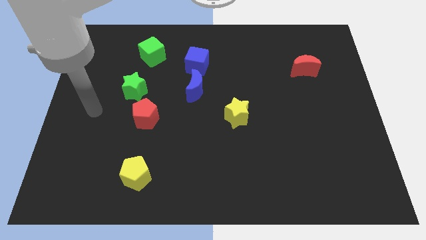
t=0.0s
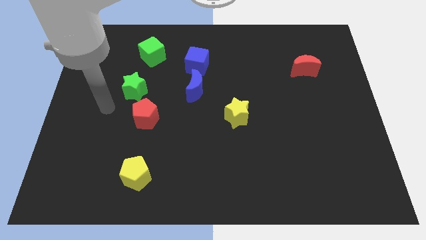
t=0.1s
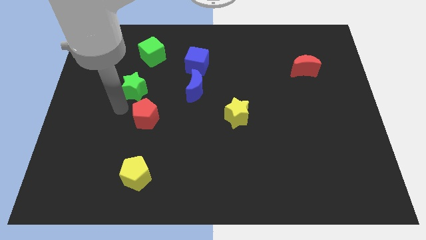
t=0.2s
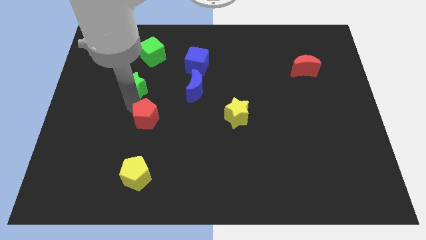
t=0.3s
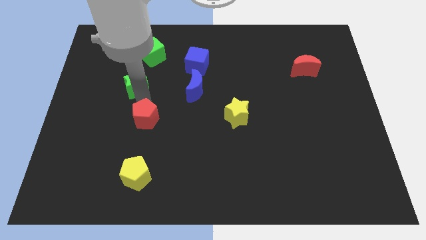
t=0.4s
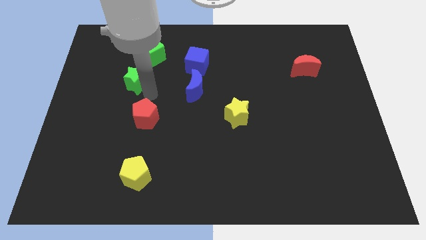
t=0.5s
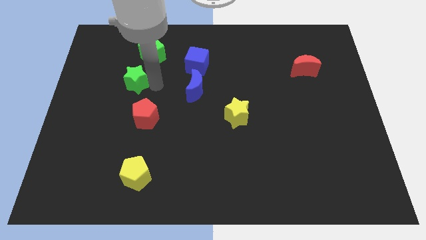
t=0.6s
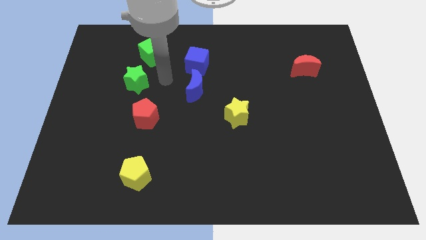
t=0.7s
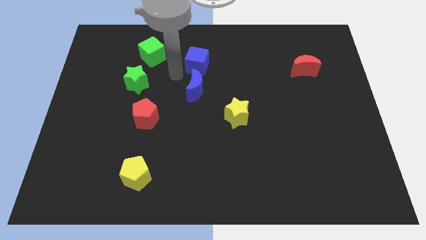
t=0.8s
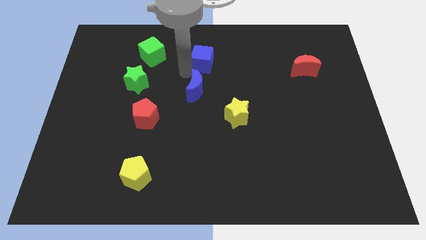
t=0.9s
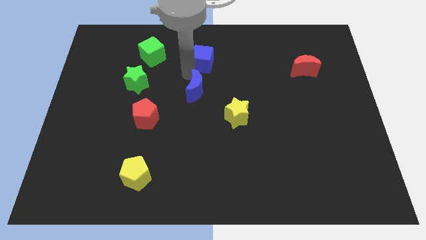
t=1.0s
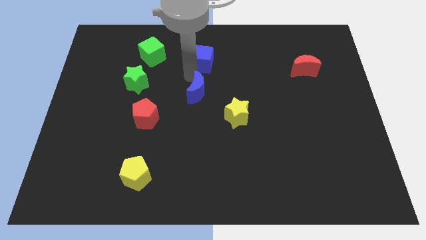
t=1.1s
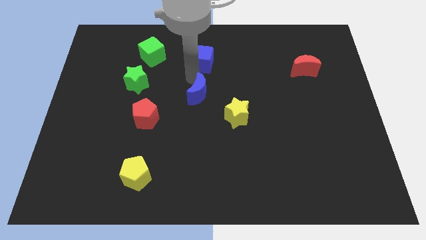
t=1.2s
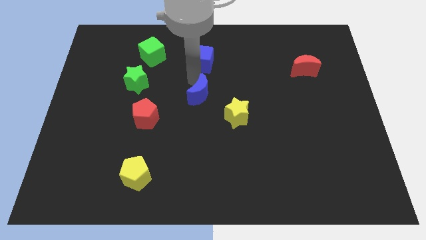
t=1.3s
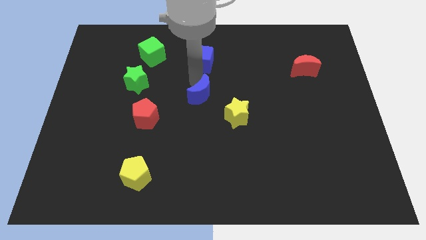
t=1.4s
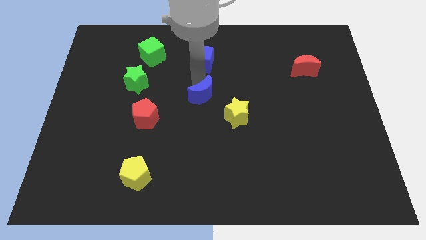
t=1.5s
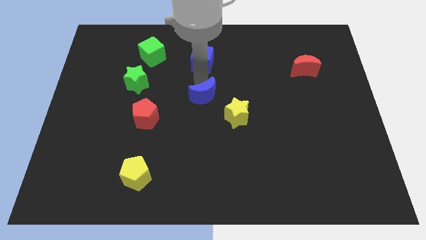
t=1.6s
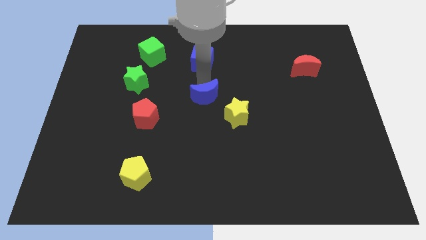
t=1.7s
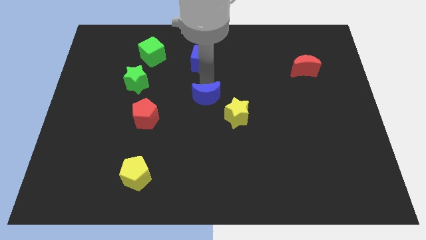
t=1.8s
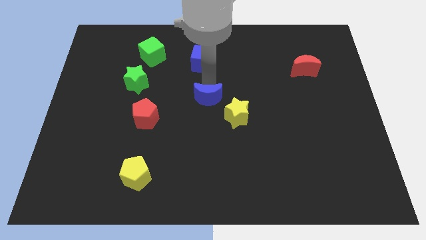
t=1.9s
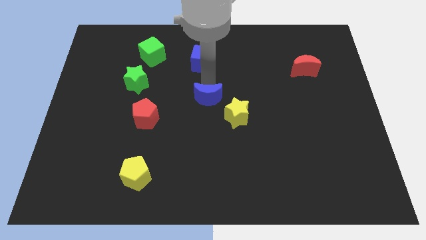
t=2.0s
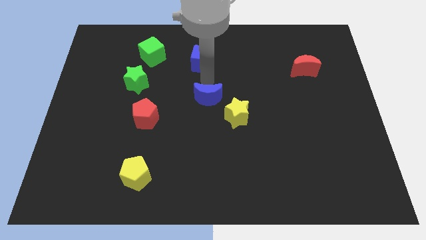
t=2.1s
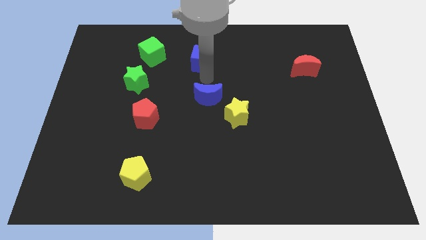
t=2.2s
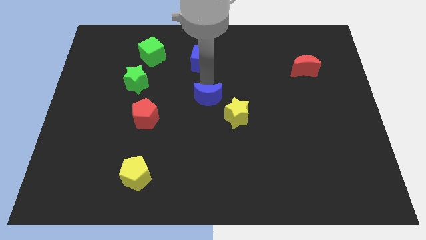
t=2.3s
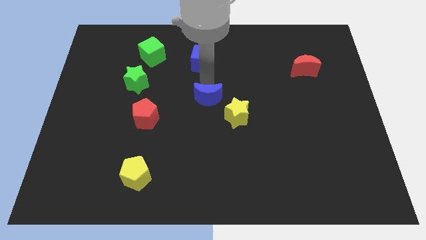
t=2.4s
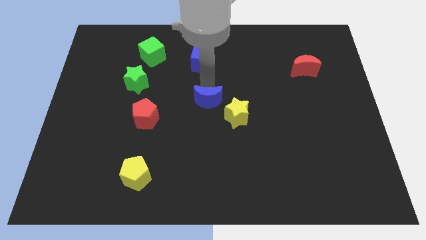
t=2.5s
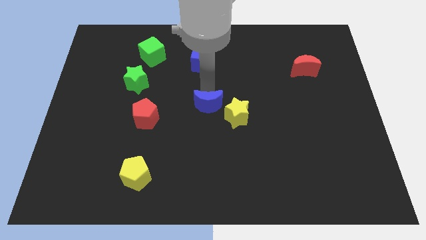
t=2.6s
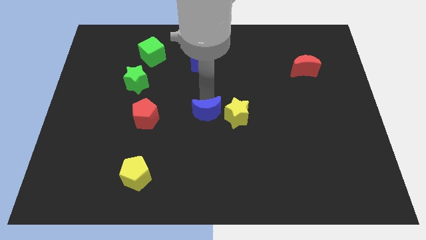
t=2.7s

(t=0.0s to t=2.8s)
move the blue moon downwards and to the right diagonally somewhat

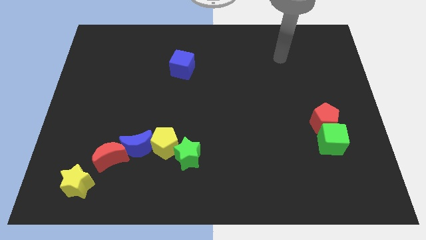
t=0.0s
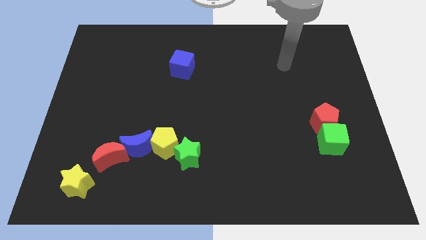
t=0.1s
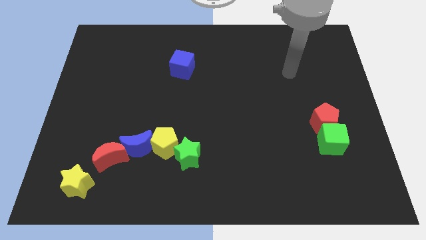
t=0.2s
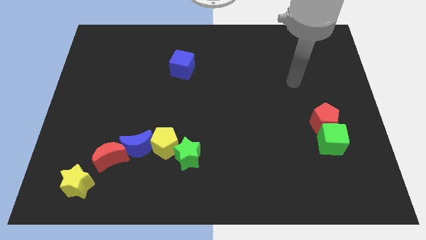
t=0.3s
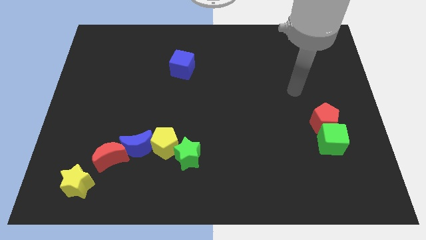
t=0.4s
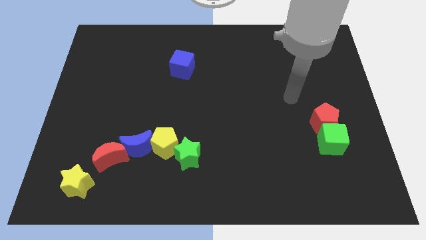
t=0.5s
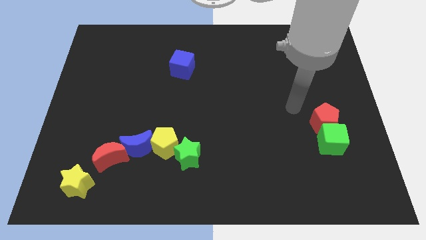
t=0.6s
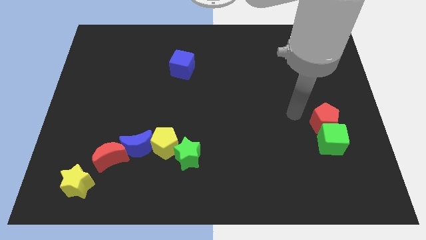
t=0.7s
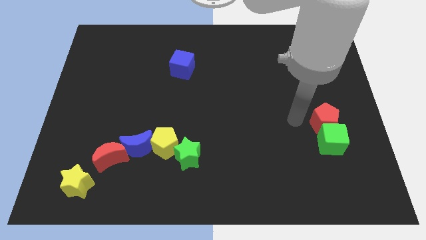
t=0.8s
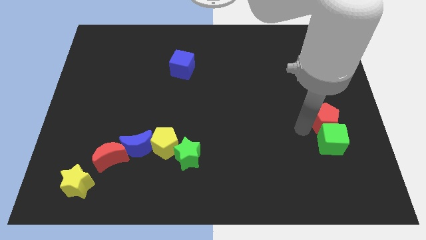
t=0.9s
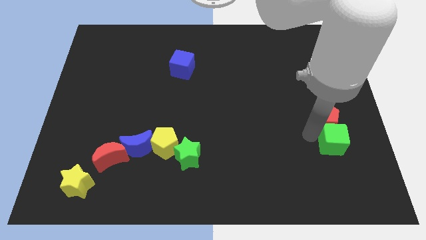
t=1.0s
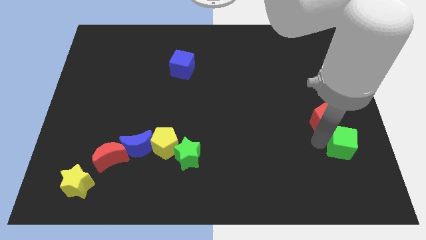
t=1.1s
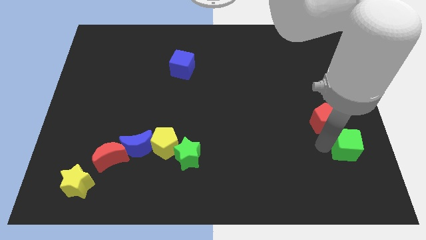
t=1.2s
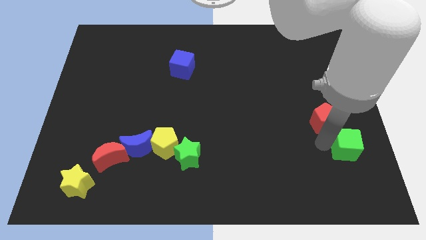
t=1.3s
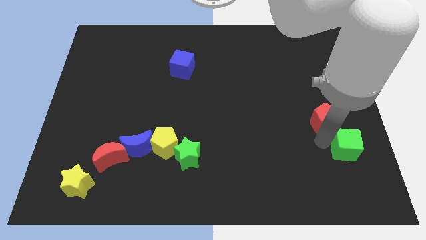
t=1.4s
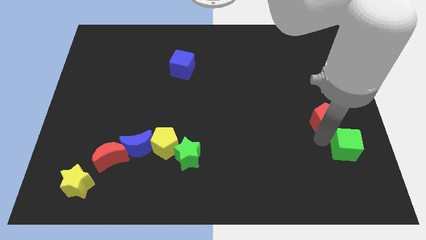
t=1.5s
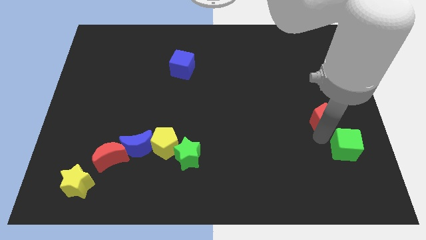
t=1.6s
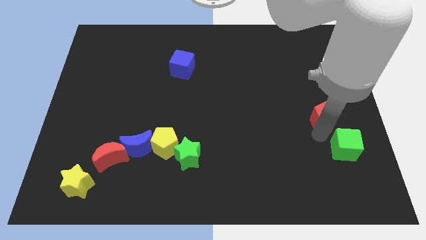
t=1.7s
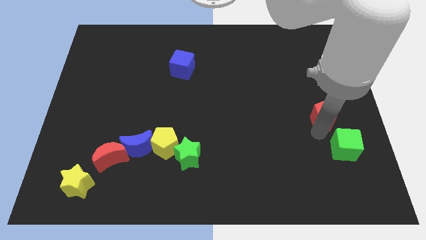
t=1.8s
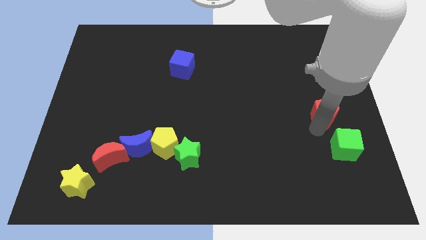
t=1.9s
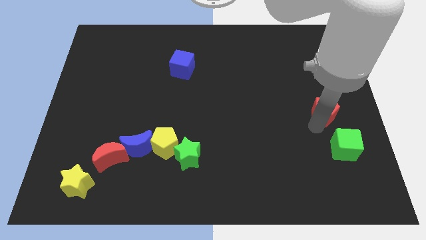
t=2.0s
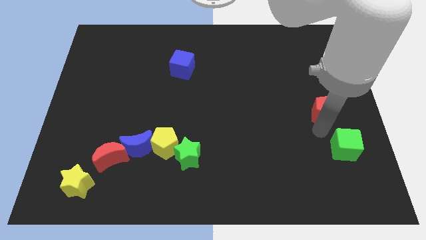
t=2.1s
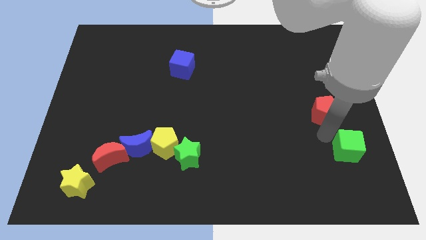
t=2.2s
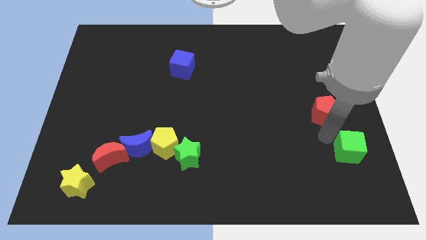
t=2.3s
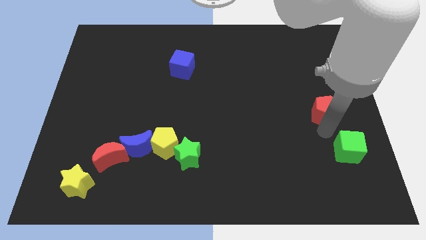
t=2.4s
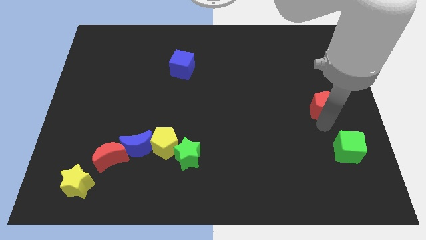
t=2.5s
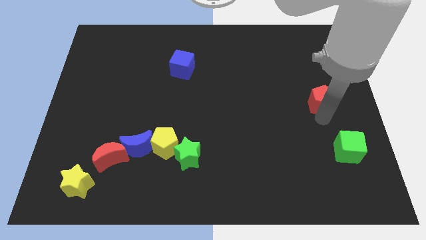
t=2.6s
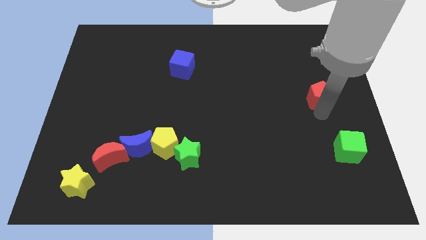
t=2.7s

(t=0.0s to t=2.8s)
push the red pentagon upwards a bit

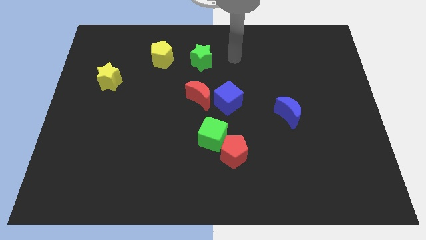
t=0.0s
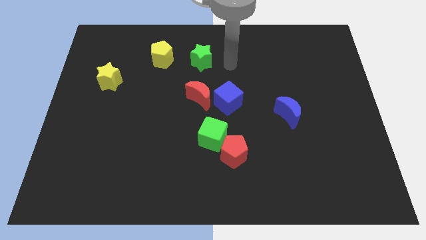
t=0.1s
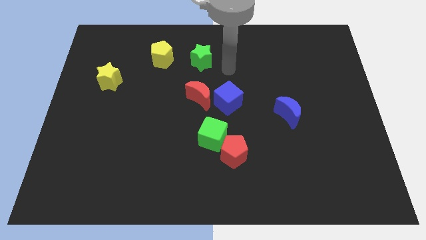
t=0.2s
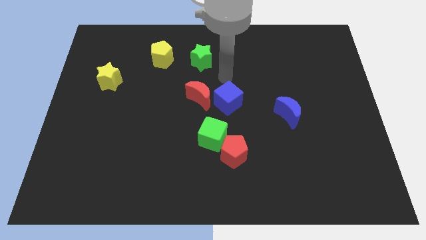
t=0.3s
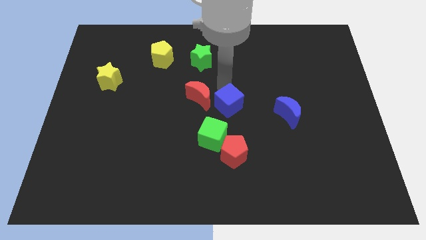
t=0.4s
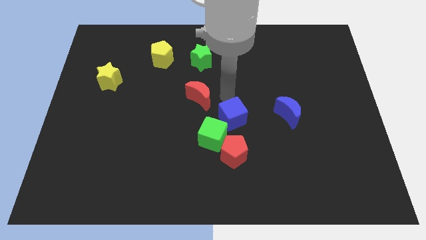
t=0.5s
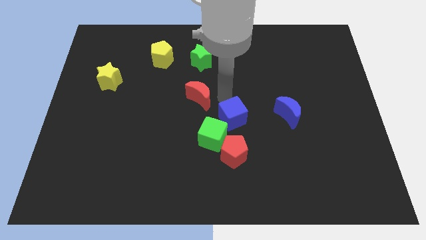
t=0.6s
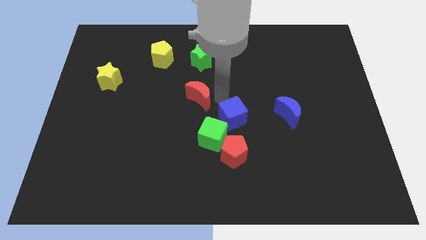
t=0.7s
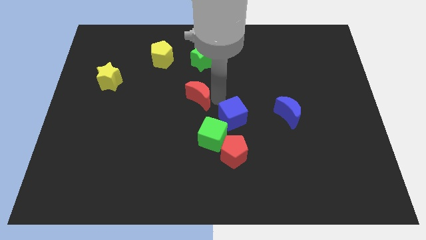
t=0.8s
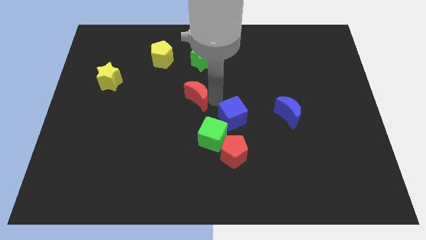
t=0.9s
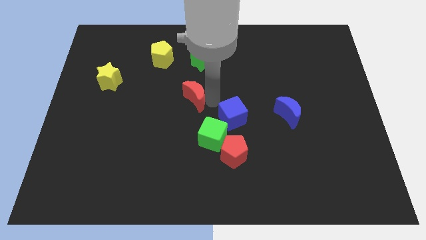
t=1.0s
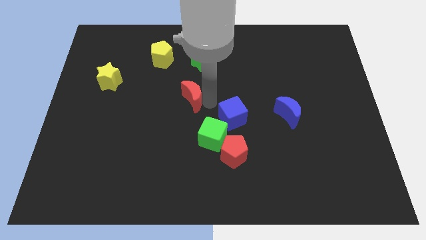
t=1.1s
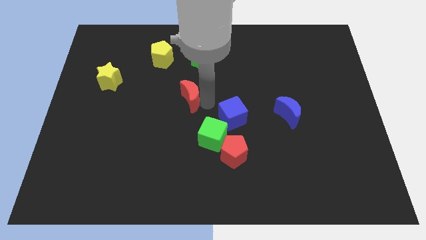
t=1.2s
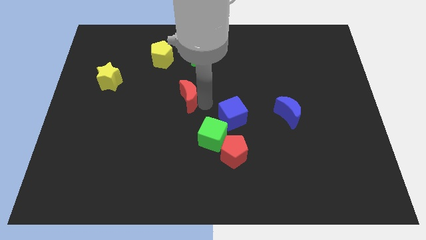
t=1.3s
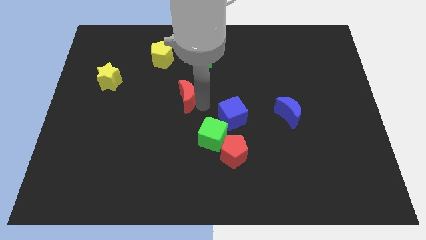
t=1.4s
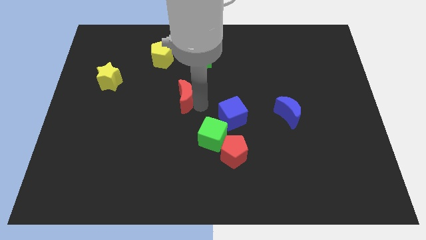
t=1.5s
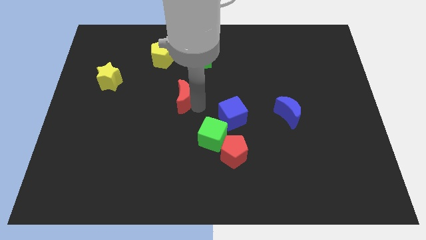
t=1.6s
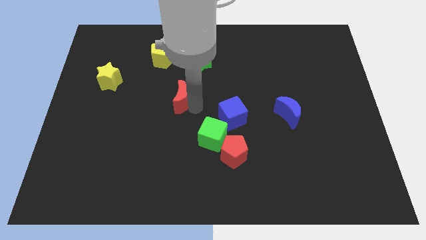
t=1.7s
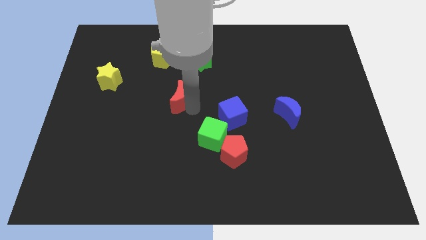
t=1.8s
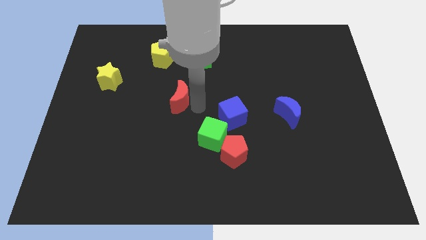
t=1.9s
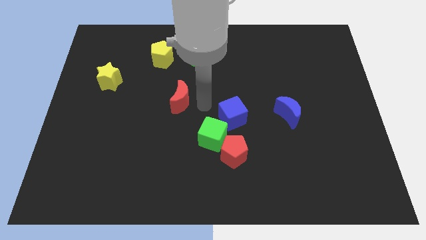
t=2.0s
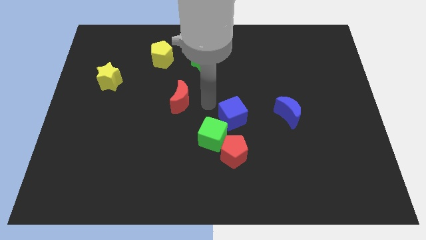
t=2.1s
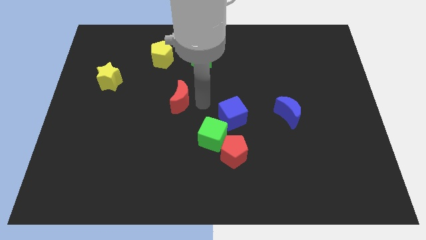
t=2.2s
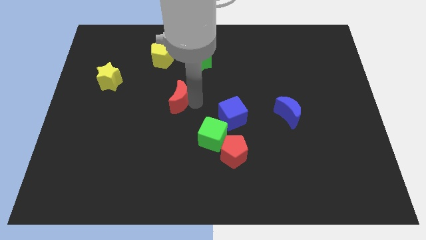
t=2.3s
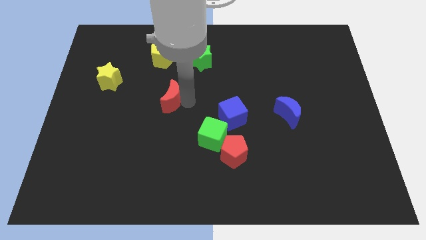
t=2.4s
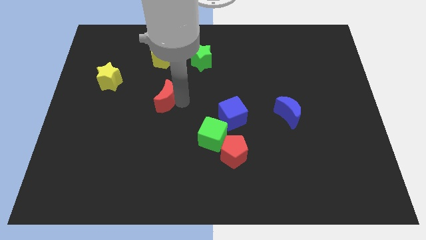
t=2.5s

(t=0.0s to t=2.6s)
push the red moon left somewhat
